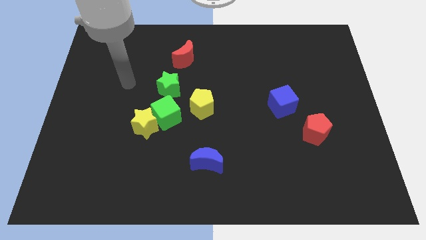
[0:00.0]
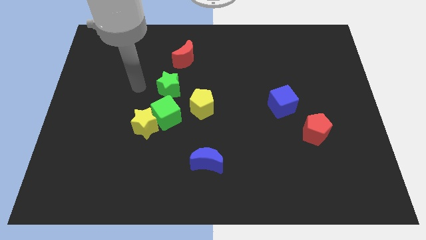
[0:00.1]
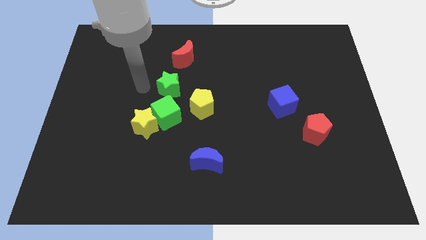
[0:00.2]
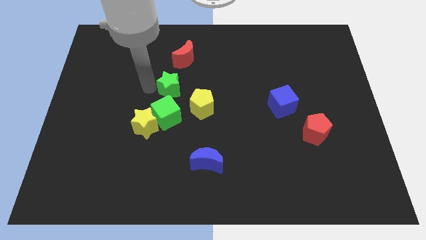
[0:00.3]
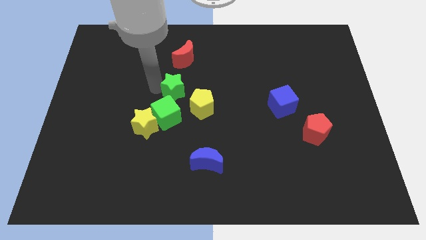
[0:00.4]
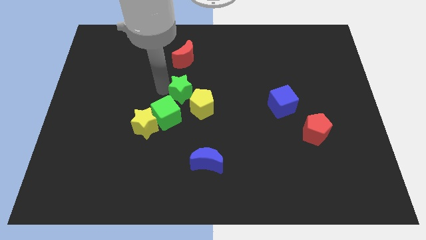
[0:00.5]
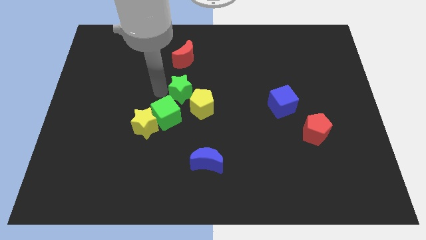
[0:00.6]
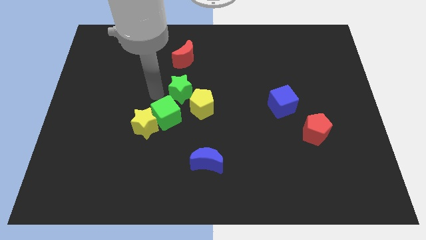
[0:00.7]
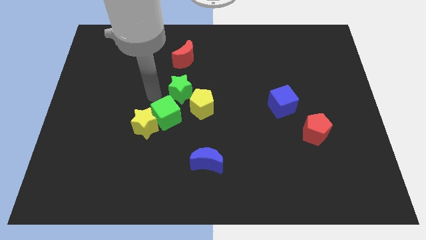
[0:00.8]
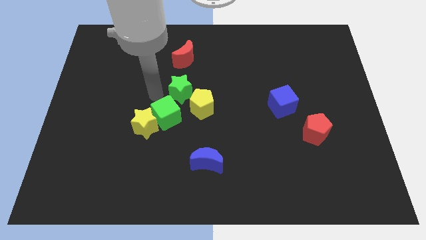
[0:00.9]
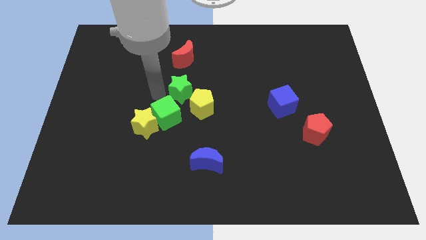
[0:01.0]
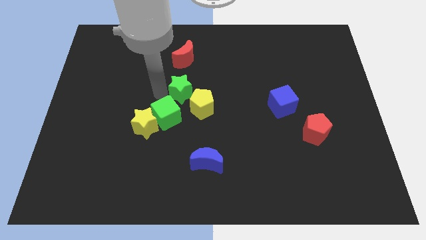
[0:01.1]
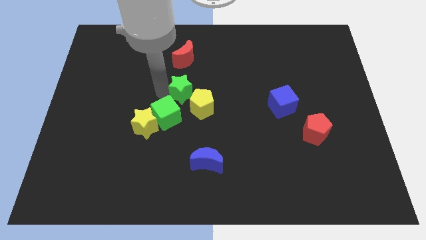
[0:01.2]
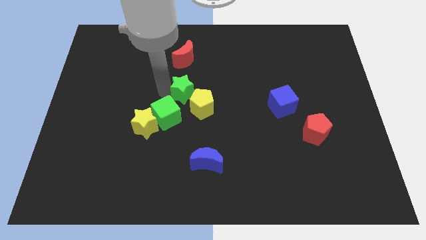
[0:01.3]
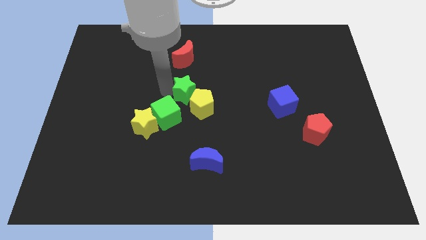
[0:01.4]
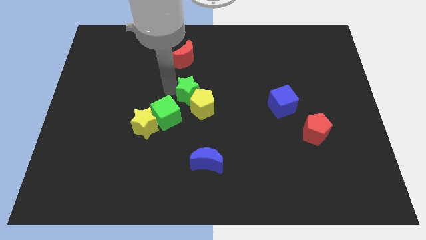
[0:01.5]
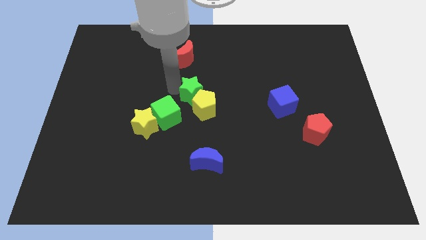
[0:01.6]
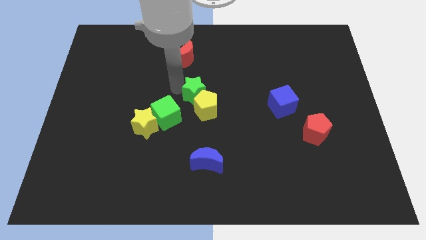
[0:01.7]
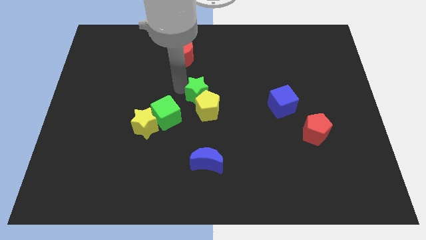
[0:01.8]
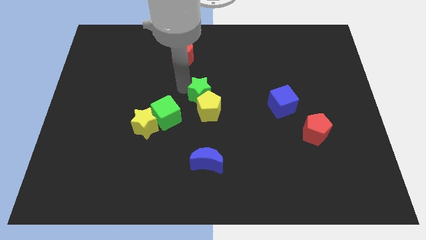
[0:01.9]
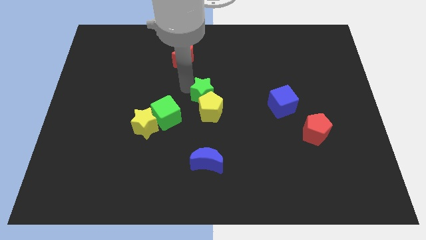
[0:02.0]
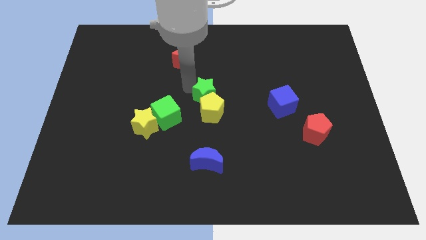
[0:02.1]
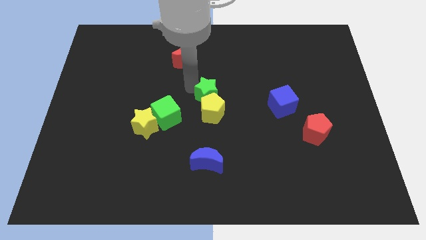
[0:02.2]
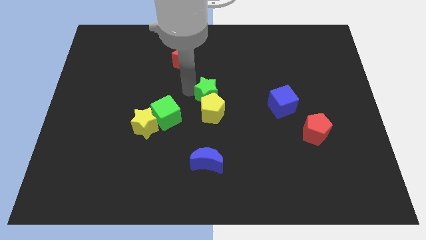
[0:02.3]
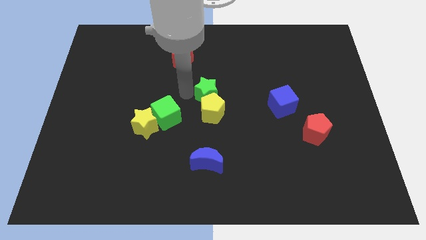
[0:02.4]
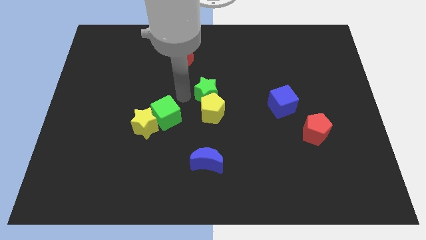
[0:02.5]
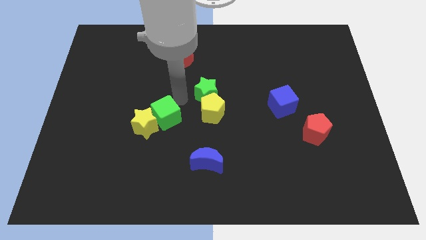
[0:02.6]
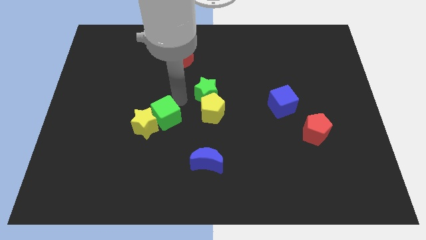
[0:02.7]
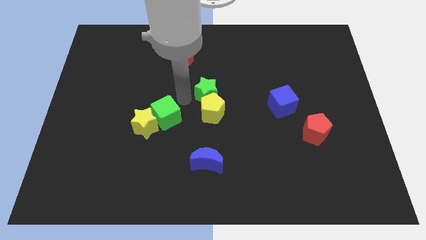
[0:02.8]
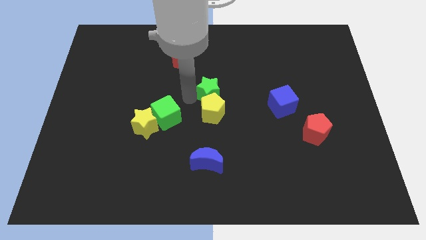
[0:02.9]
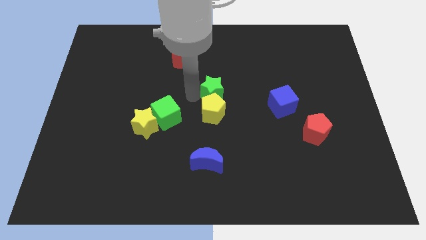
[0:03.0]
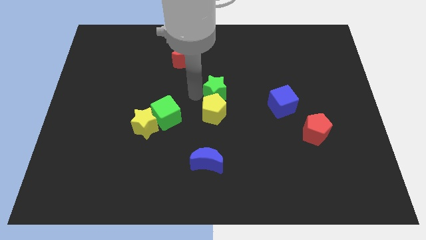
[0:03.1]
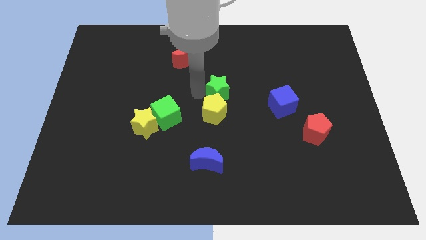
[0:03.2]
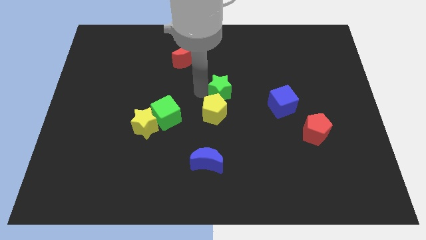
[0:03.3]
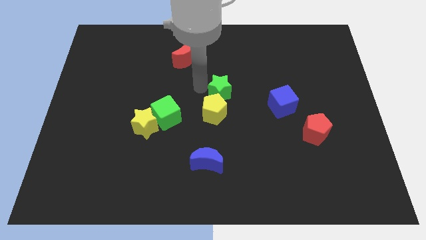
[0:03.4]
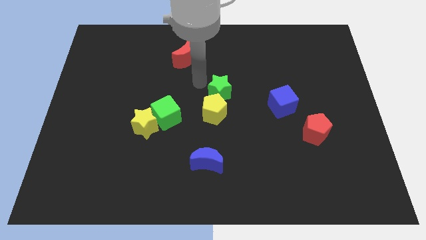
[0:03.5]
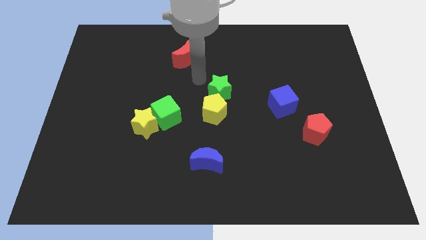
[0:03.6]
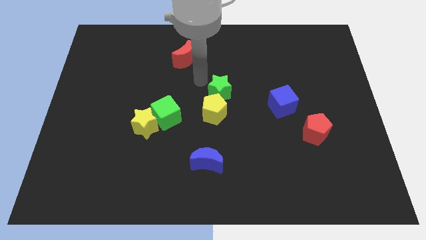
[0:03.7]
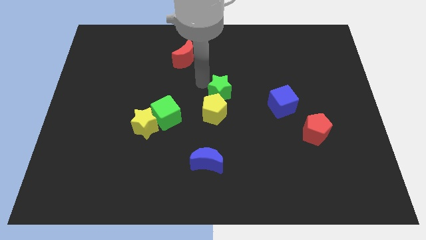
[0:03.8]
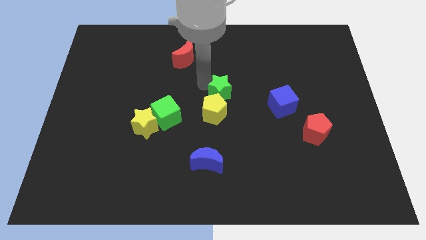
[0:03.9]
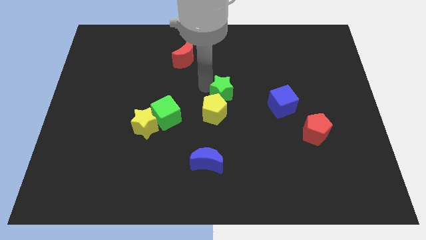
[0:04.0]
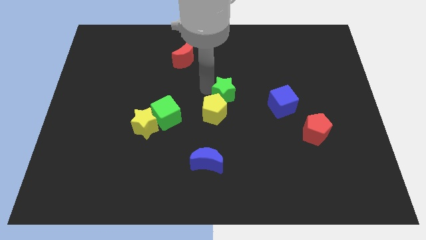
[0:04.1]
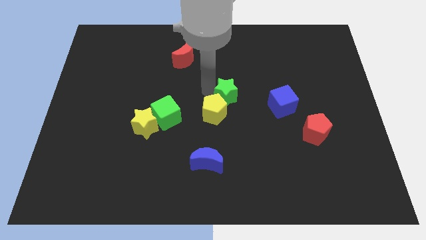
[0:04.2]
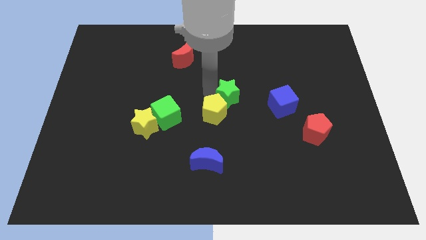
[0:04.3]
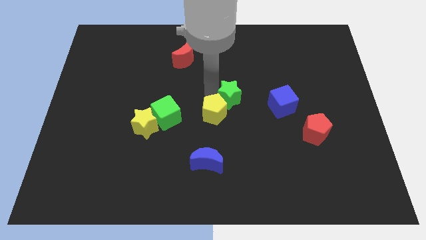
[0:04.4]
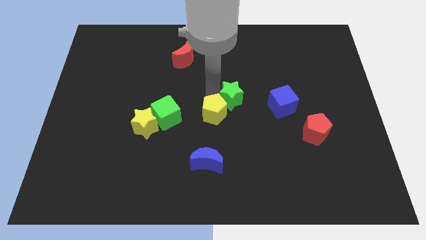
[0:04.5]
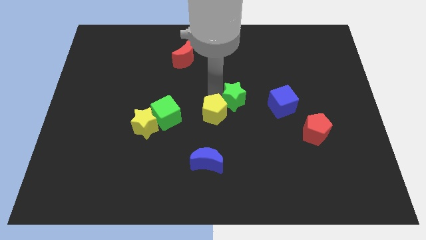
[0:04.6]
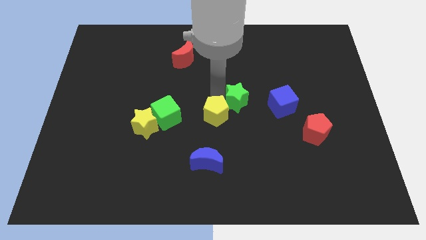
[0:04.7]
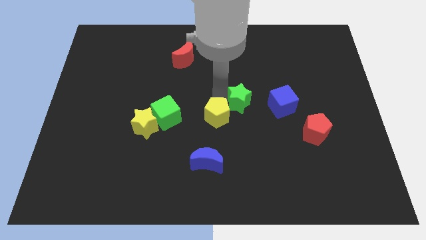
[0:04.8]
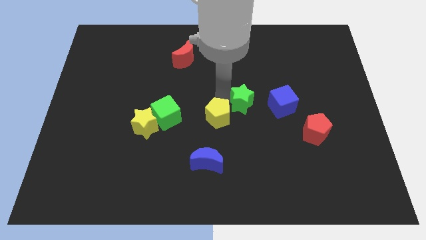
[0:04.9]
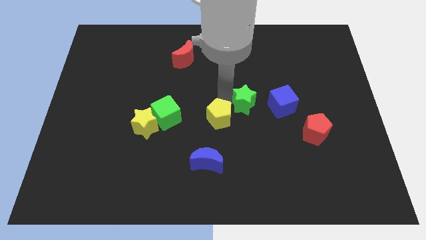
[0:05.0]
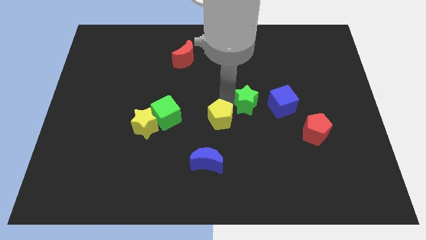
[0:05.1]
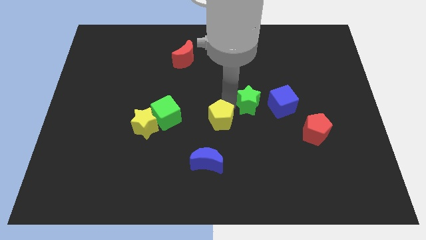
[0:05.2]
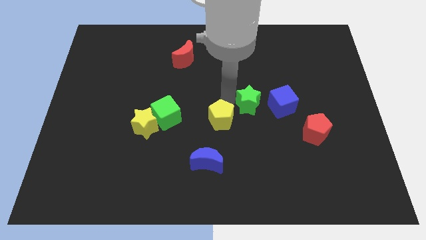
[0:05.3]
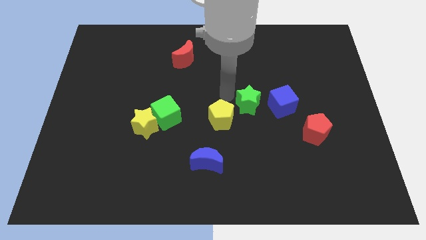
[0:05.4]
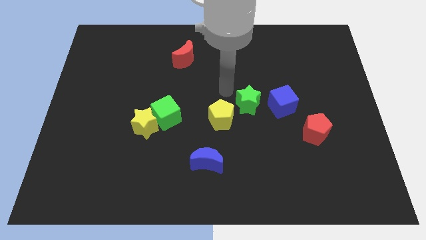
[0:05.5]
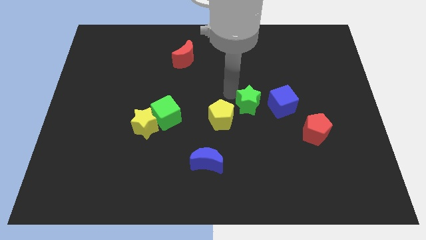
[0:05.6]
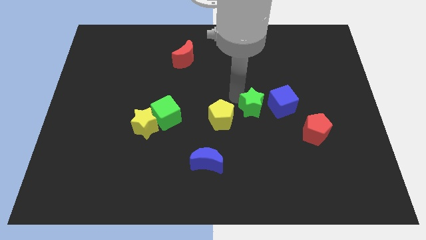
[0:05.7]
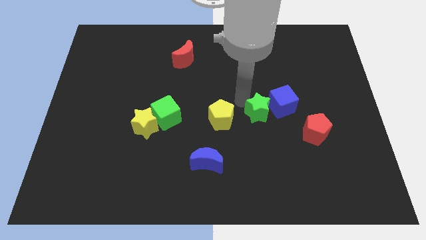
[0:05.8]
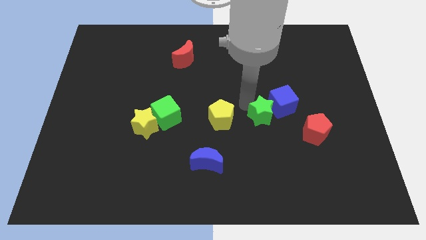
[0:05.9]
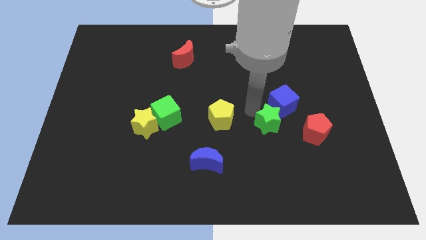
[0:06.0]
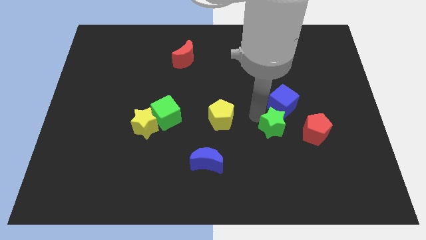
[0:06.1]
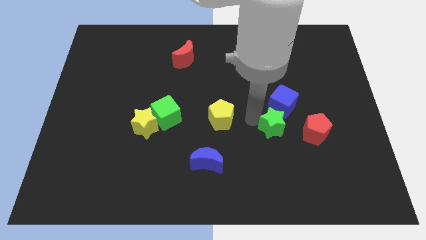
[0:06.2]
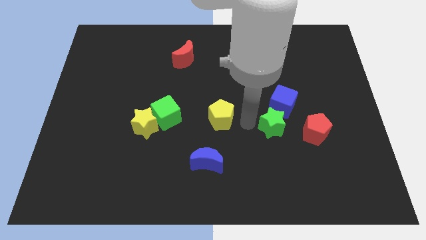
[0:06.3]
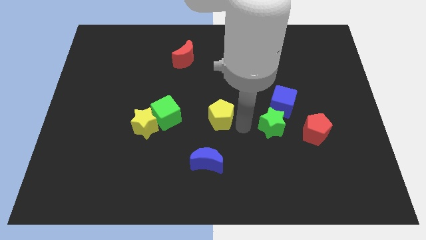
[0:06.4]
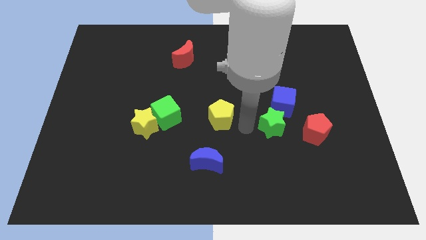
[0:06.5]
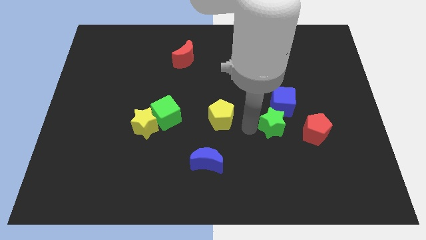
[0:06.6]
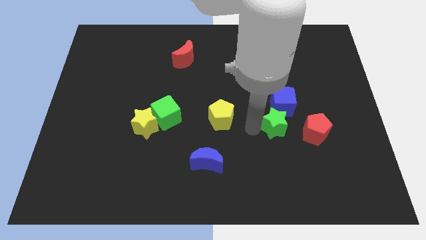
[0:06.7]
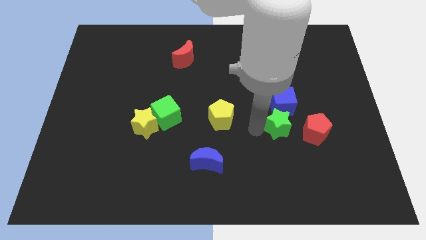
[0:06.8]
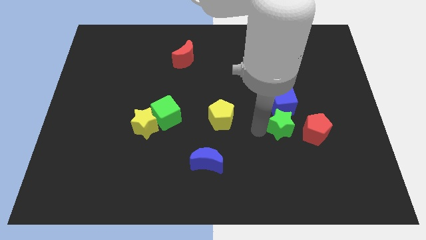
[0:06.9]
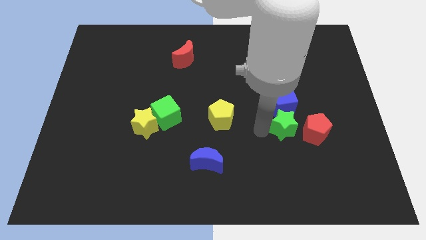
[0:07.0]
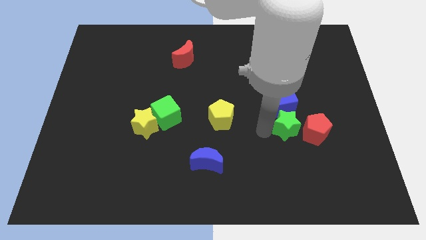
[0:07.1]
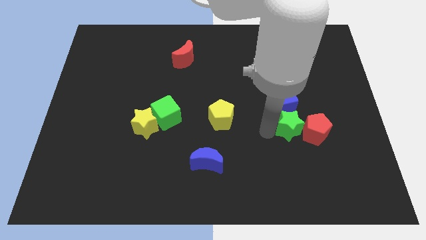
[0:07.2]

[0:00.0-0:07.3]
slide the green star next to the red pentagon
